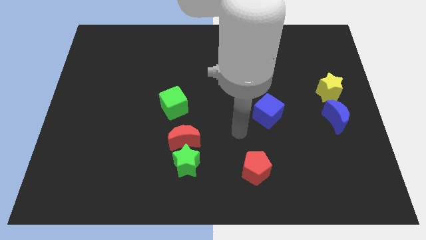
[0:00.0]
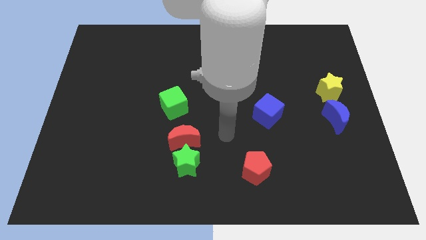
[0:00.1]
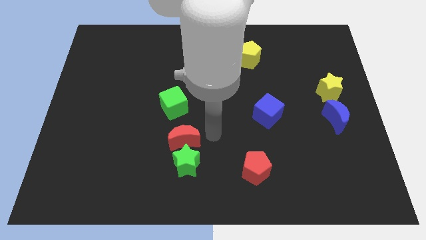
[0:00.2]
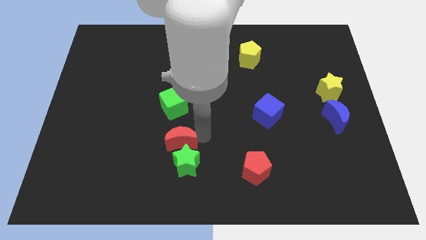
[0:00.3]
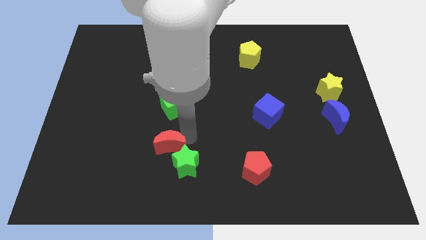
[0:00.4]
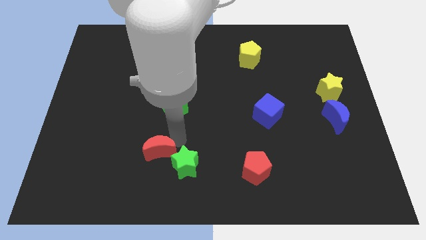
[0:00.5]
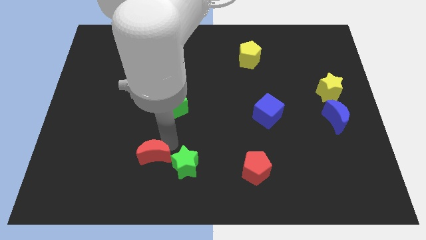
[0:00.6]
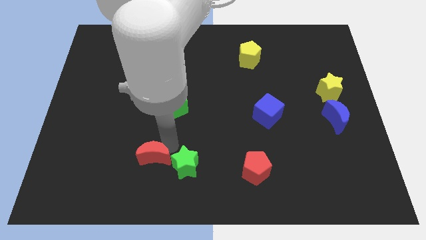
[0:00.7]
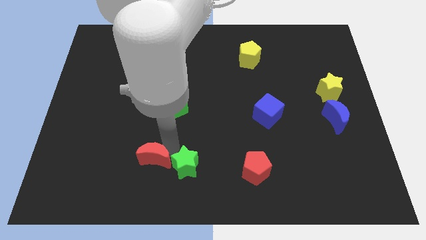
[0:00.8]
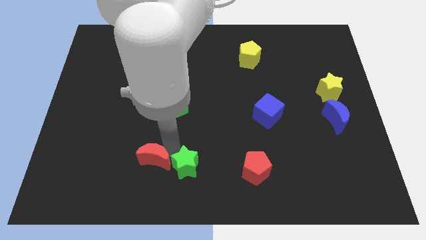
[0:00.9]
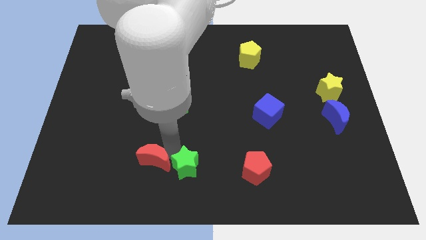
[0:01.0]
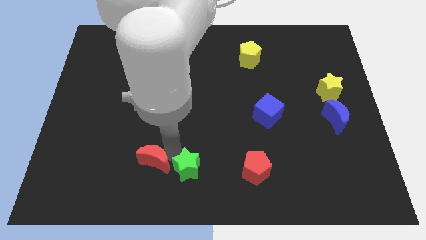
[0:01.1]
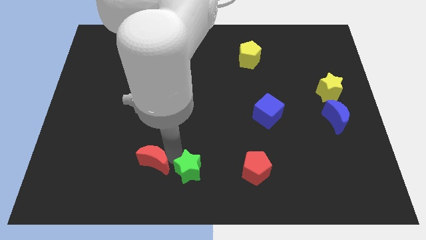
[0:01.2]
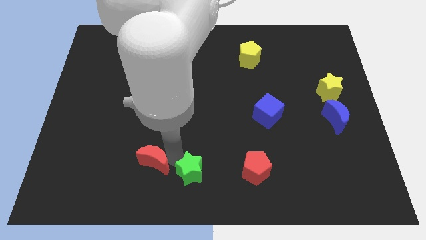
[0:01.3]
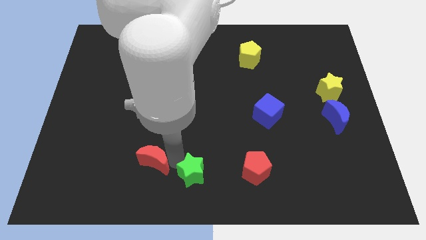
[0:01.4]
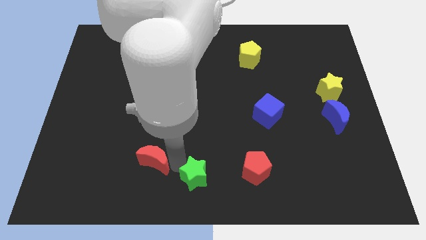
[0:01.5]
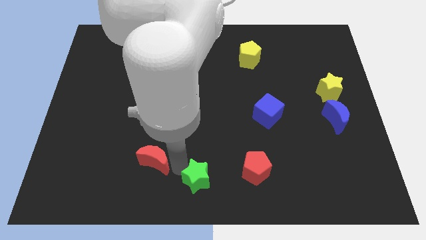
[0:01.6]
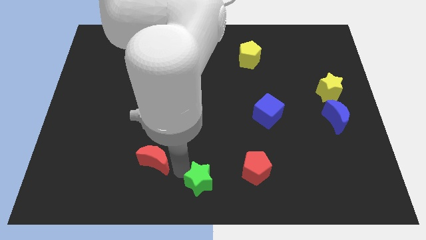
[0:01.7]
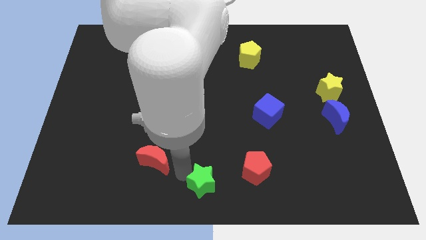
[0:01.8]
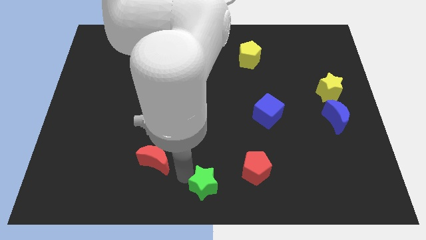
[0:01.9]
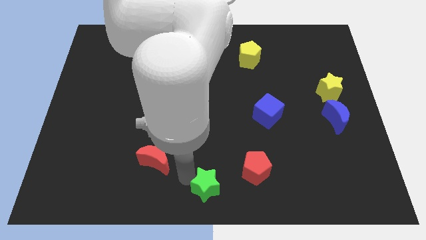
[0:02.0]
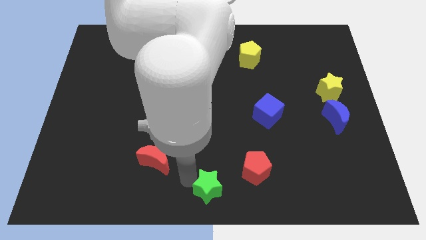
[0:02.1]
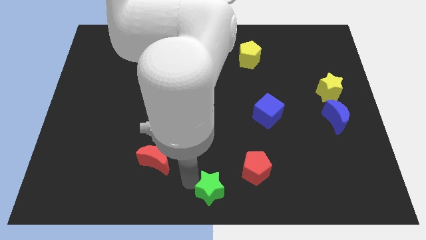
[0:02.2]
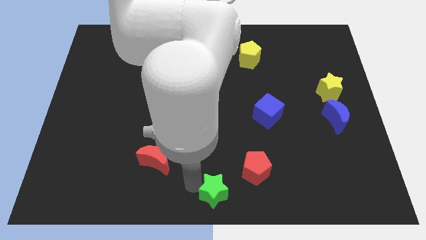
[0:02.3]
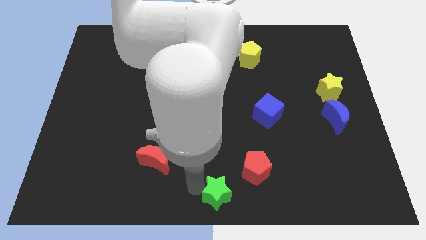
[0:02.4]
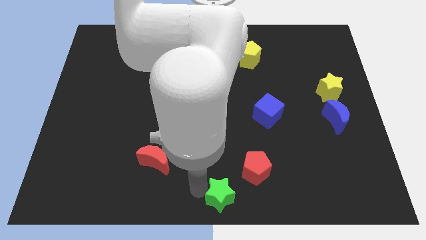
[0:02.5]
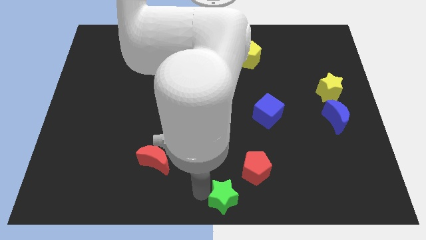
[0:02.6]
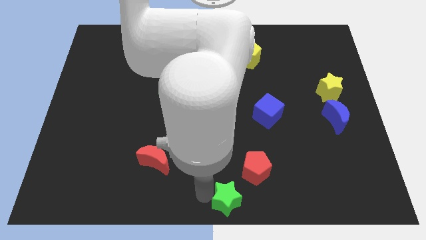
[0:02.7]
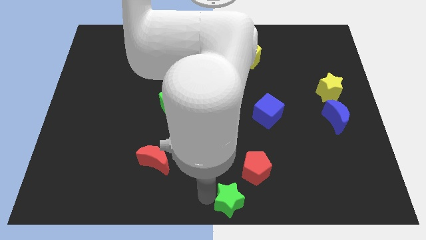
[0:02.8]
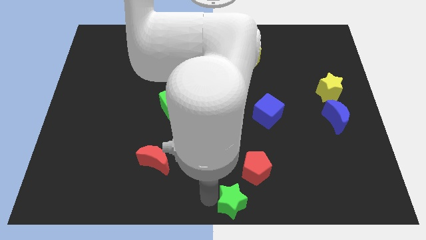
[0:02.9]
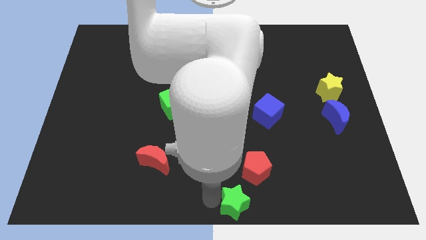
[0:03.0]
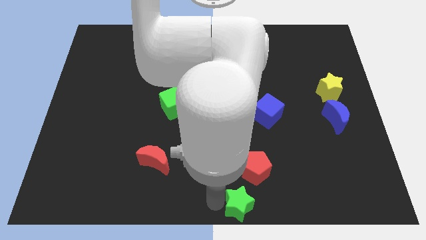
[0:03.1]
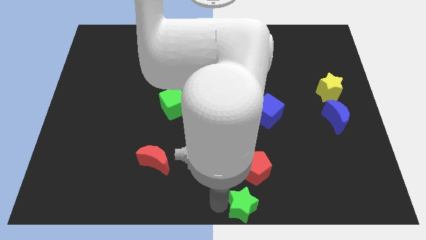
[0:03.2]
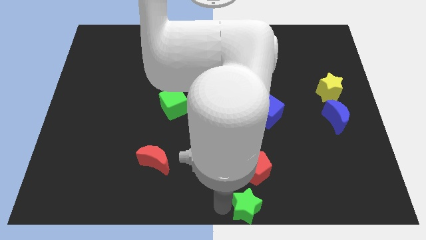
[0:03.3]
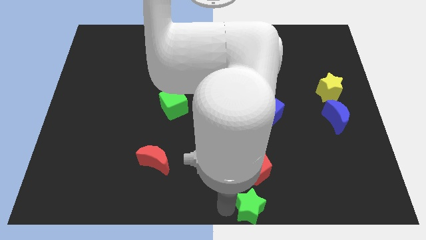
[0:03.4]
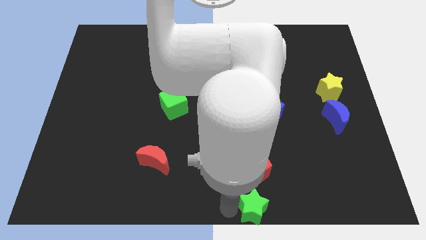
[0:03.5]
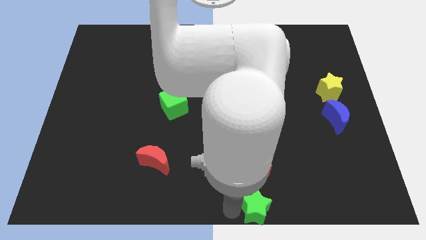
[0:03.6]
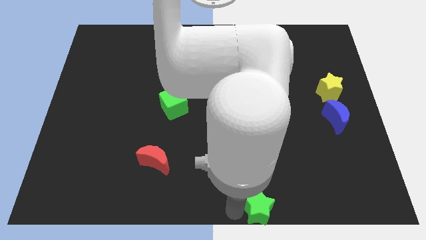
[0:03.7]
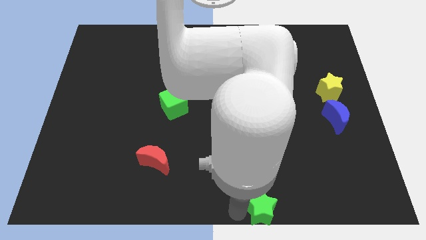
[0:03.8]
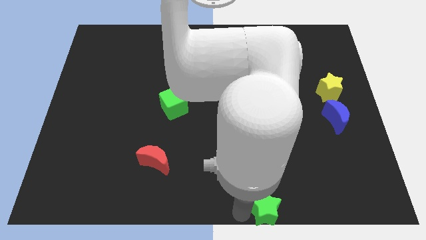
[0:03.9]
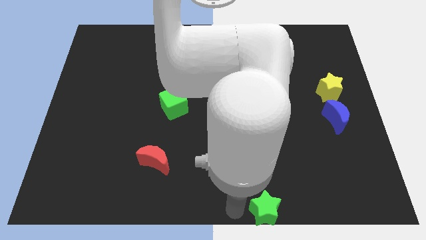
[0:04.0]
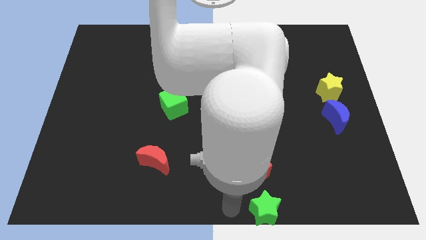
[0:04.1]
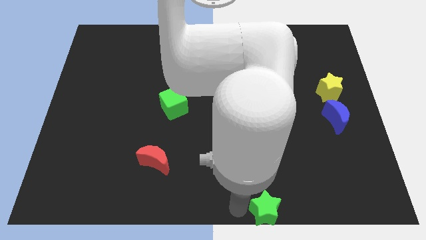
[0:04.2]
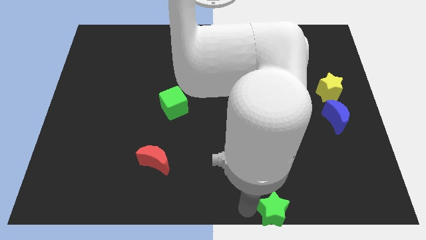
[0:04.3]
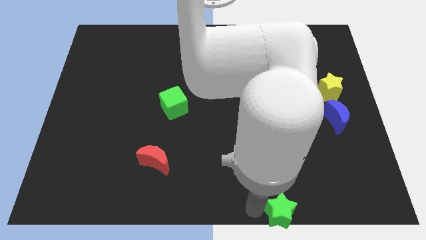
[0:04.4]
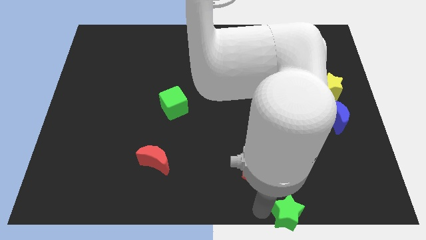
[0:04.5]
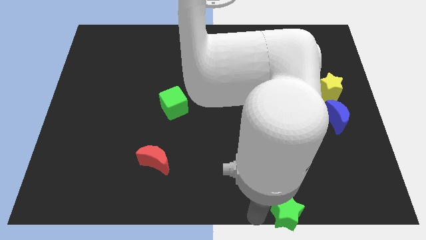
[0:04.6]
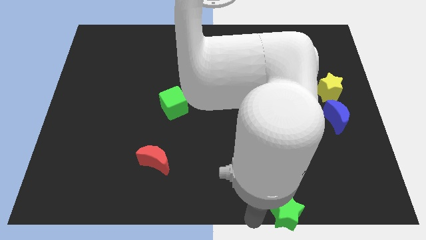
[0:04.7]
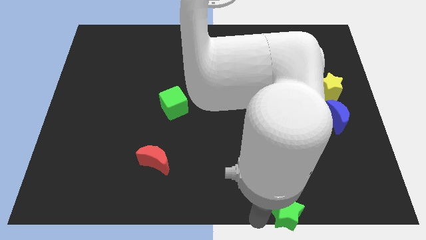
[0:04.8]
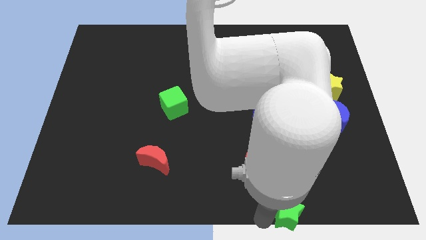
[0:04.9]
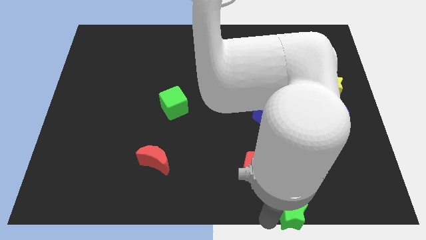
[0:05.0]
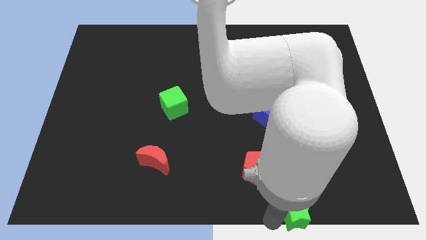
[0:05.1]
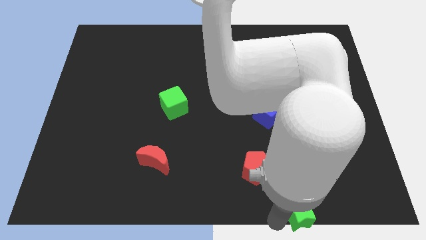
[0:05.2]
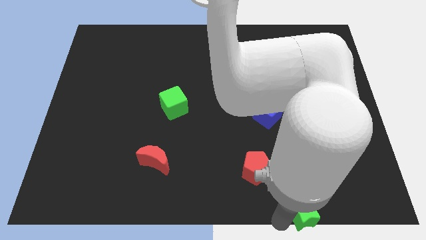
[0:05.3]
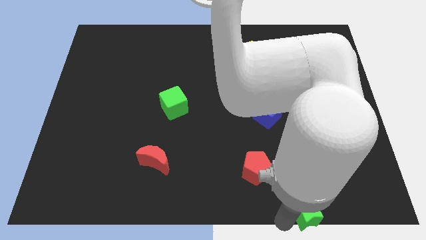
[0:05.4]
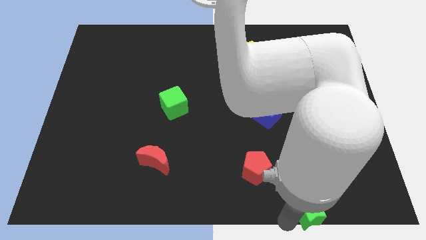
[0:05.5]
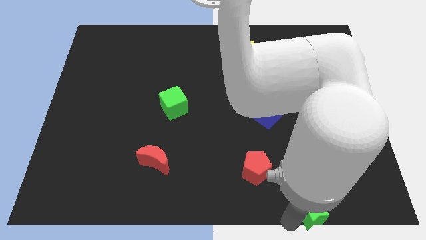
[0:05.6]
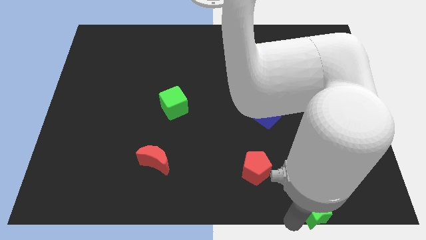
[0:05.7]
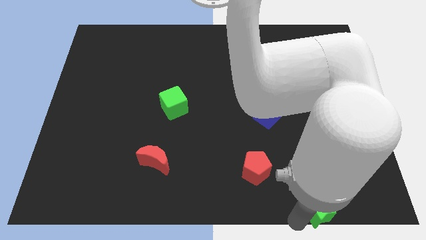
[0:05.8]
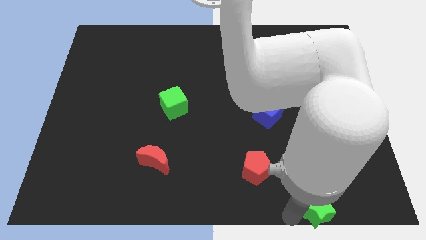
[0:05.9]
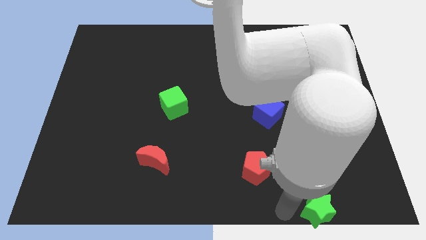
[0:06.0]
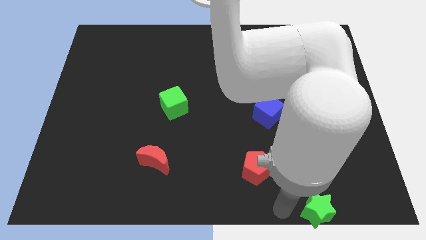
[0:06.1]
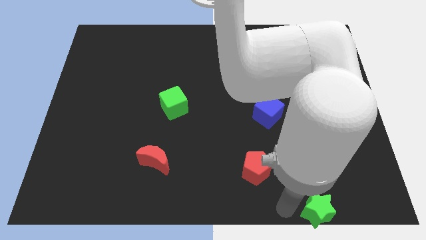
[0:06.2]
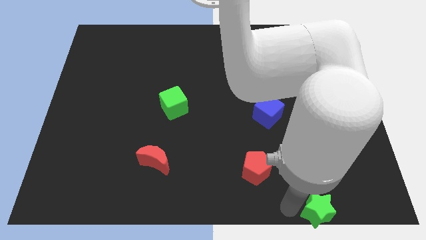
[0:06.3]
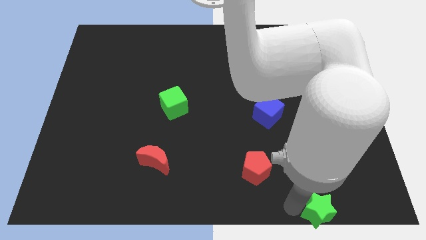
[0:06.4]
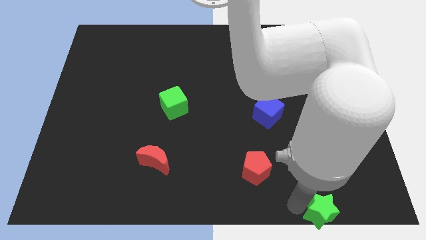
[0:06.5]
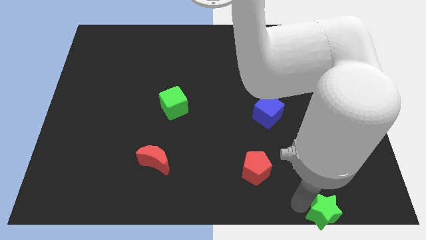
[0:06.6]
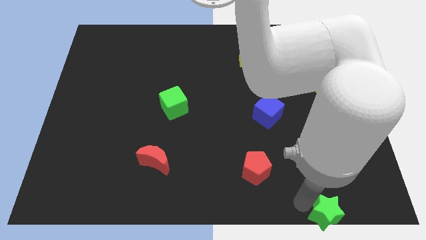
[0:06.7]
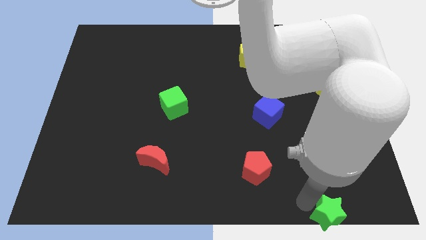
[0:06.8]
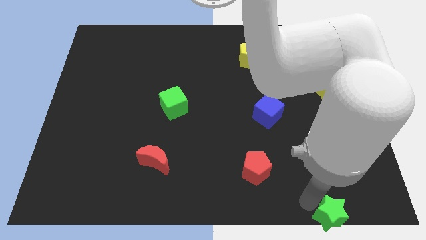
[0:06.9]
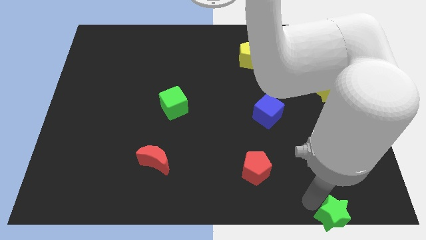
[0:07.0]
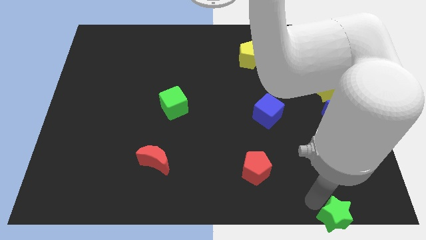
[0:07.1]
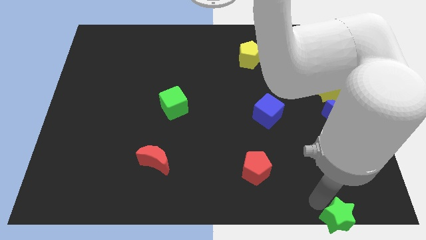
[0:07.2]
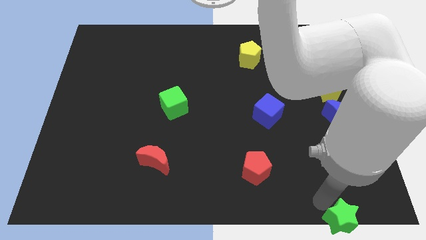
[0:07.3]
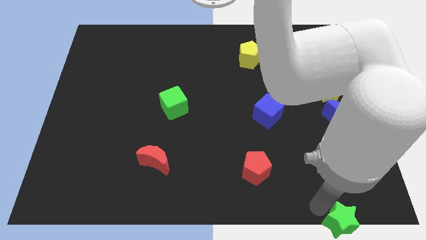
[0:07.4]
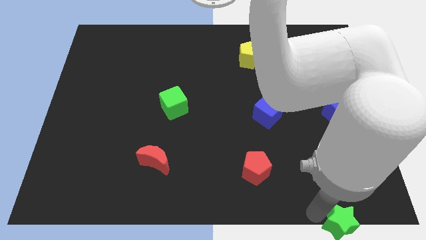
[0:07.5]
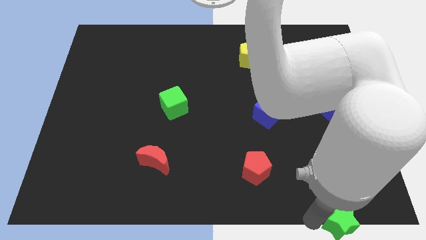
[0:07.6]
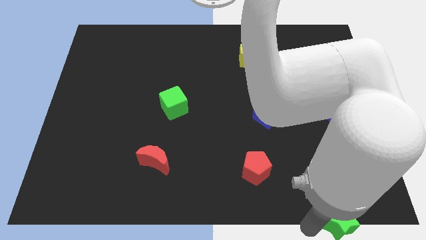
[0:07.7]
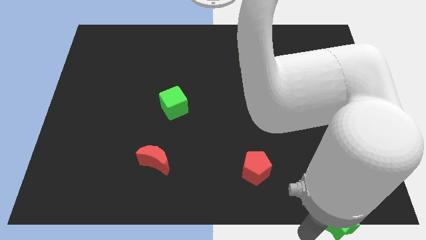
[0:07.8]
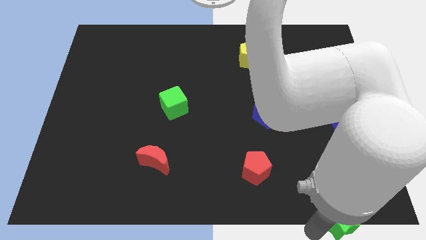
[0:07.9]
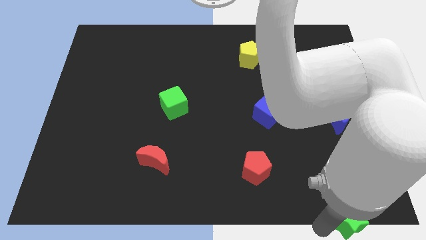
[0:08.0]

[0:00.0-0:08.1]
put the green star to the lower right corner
